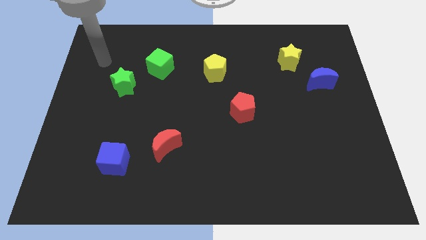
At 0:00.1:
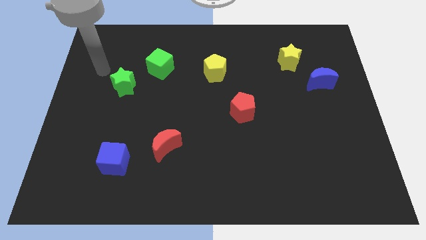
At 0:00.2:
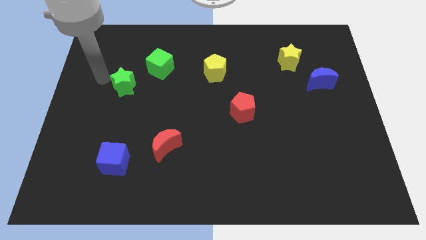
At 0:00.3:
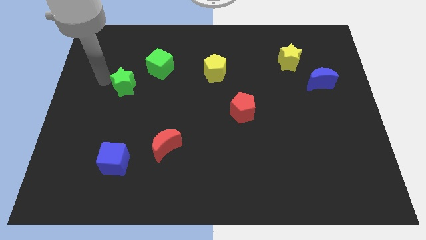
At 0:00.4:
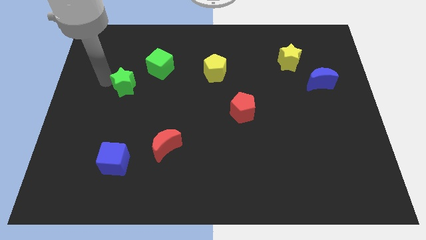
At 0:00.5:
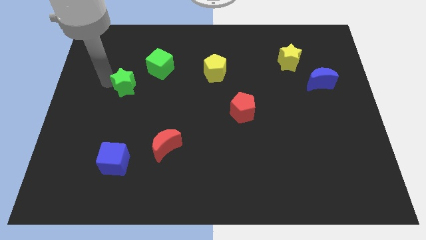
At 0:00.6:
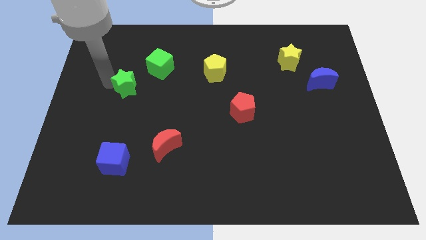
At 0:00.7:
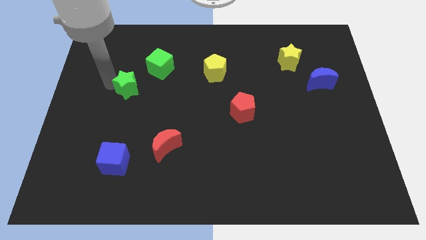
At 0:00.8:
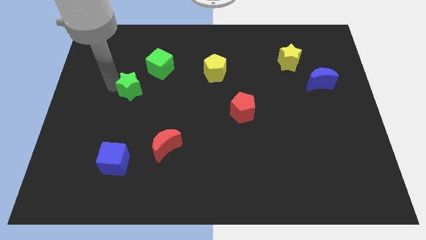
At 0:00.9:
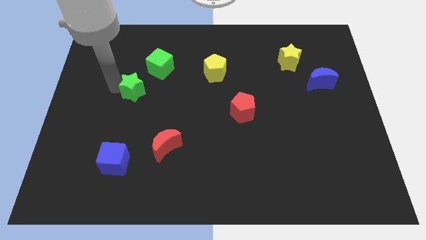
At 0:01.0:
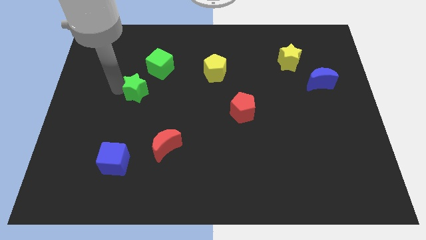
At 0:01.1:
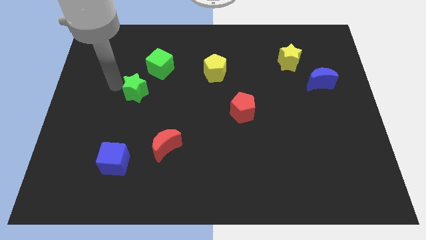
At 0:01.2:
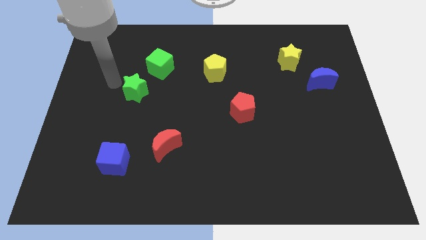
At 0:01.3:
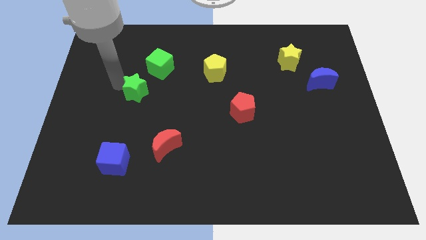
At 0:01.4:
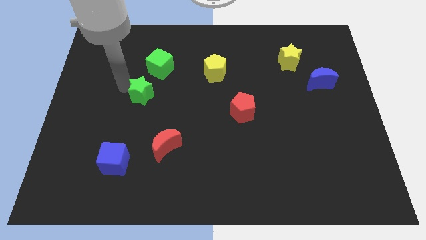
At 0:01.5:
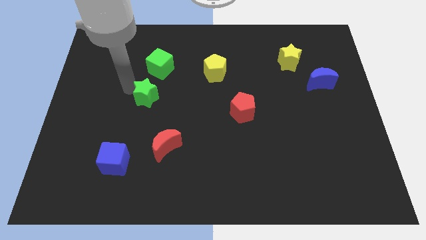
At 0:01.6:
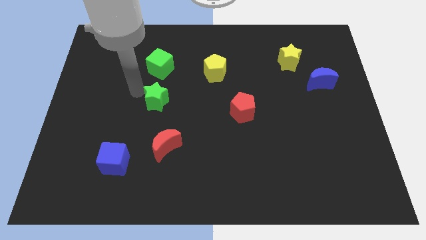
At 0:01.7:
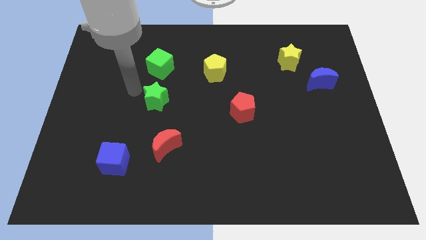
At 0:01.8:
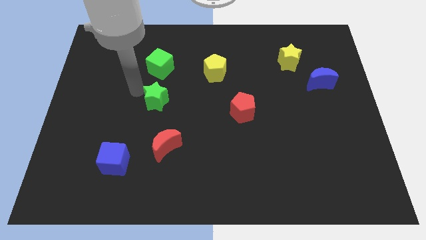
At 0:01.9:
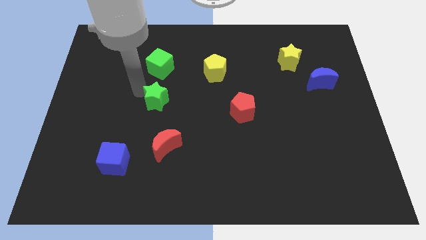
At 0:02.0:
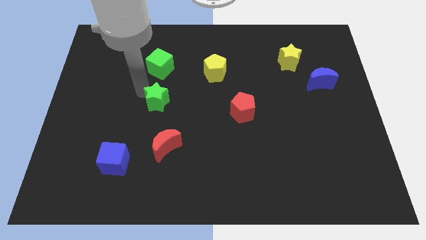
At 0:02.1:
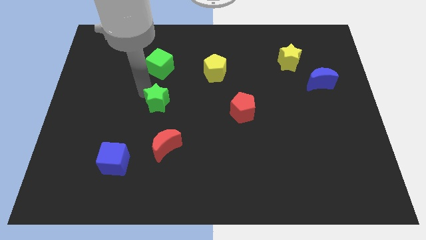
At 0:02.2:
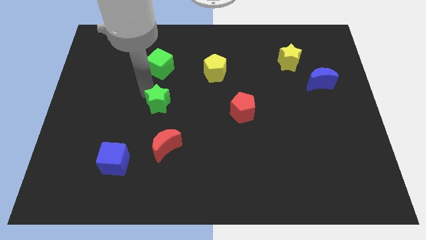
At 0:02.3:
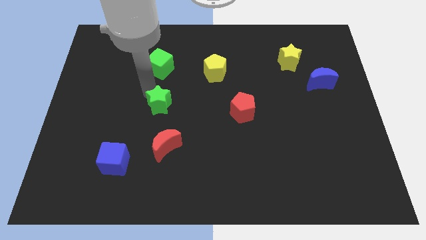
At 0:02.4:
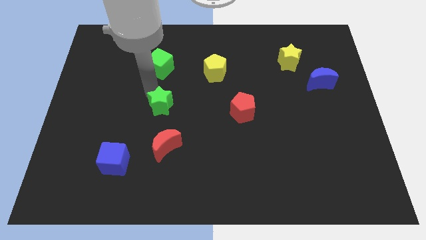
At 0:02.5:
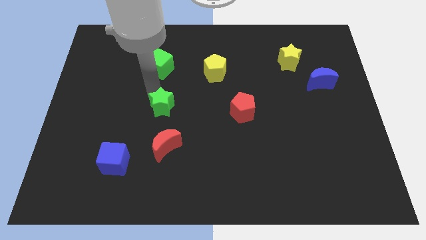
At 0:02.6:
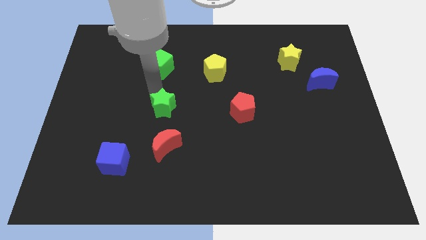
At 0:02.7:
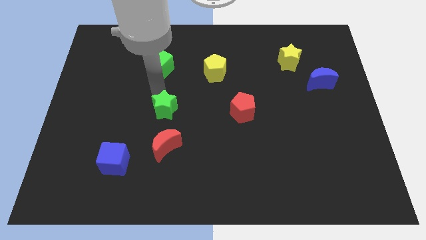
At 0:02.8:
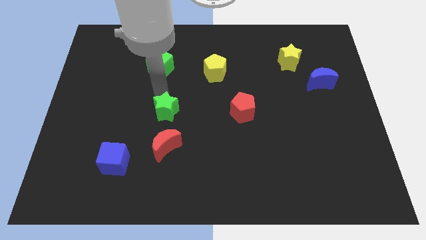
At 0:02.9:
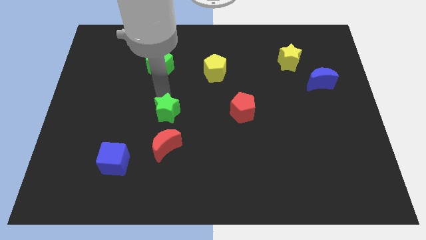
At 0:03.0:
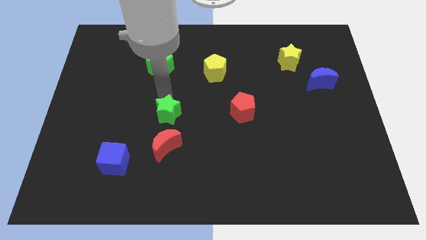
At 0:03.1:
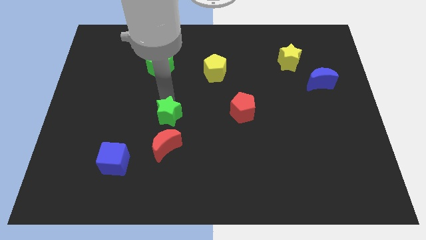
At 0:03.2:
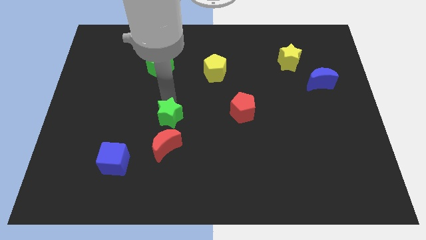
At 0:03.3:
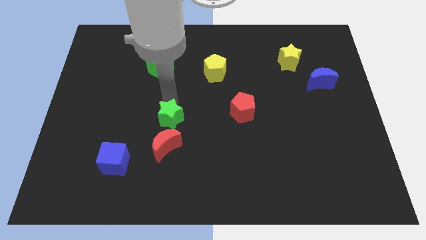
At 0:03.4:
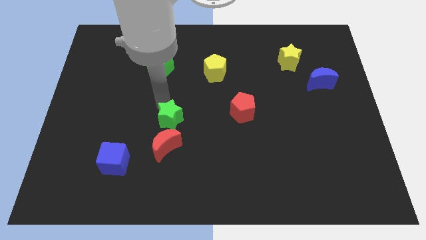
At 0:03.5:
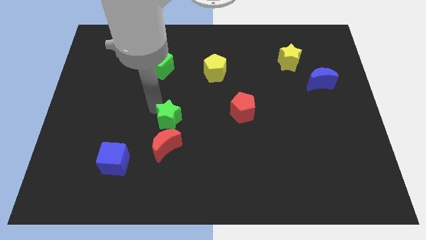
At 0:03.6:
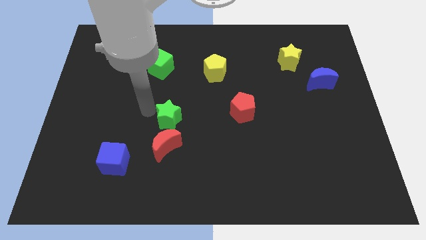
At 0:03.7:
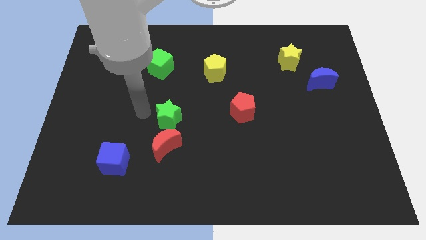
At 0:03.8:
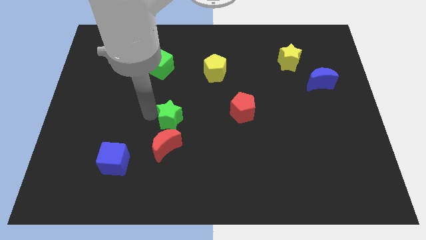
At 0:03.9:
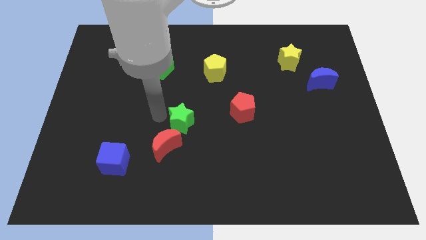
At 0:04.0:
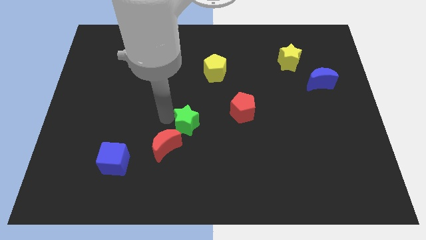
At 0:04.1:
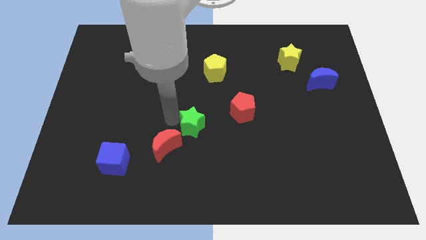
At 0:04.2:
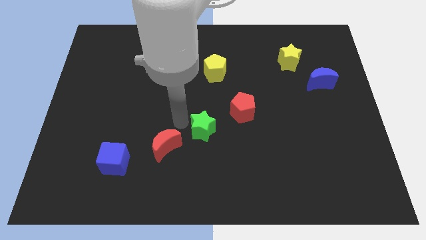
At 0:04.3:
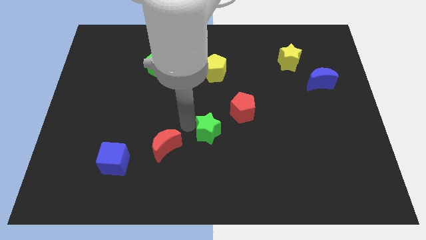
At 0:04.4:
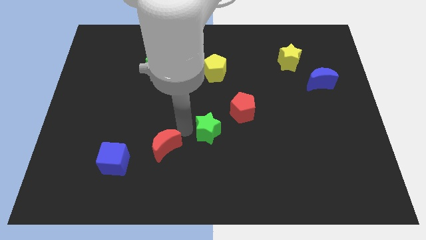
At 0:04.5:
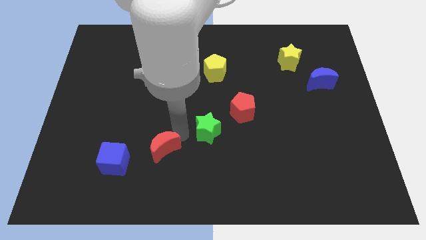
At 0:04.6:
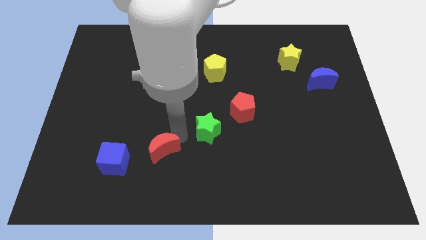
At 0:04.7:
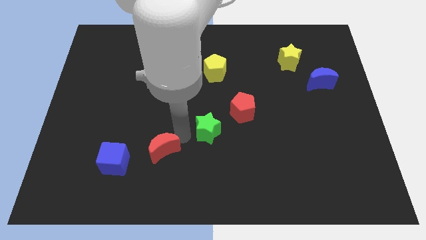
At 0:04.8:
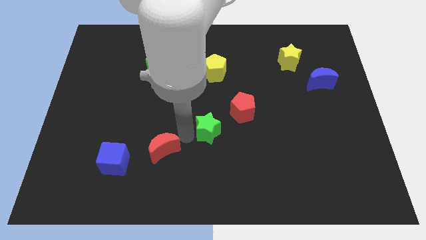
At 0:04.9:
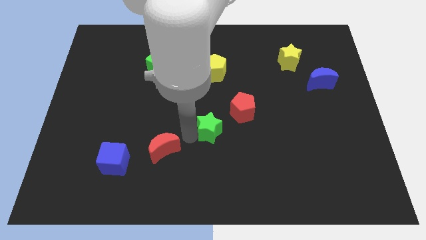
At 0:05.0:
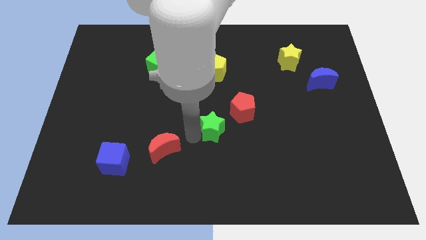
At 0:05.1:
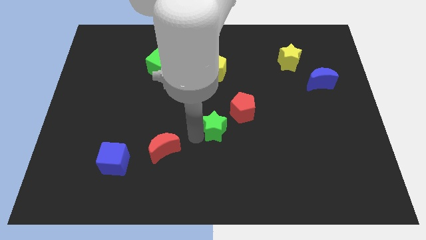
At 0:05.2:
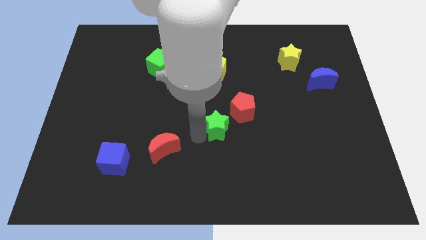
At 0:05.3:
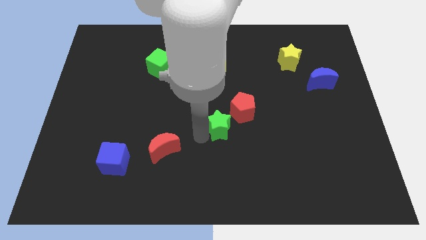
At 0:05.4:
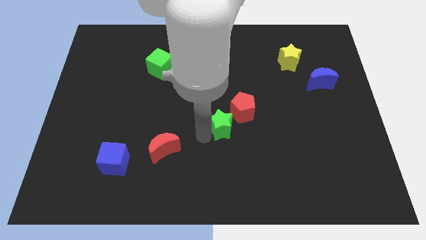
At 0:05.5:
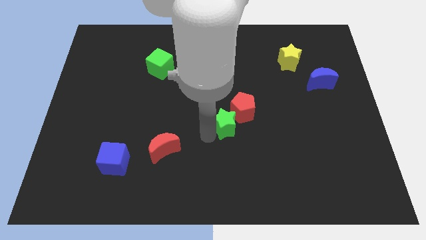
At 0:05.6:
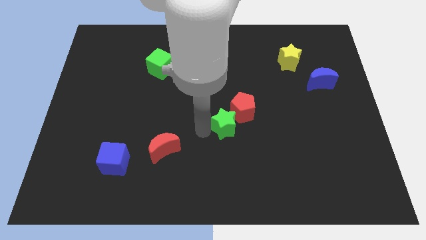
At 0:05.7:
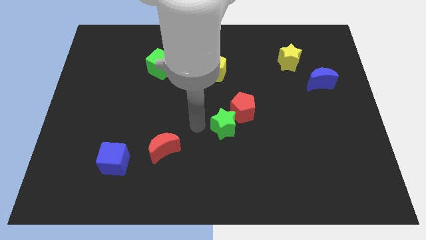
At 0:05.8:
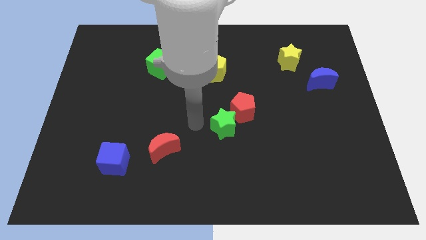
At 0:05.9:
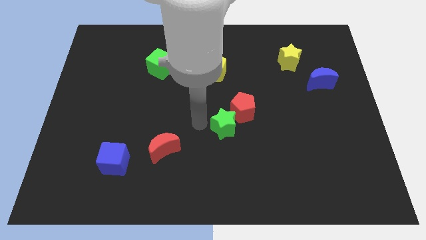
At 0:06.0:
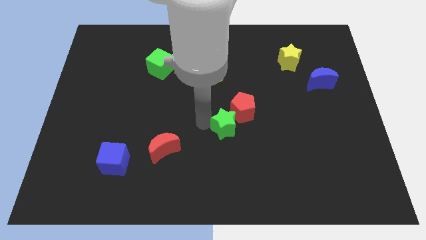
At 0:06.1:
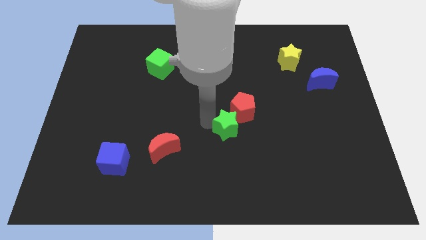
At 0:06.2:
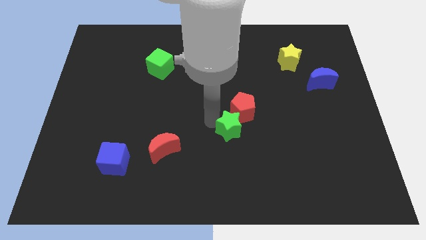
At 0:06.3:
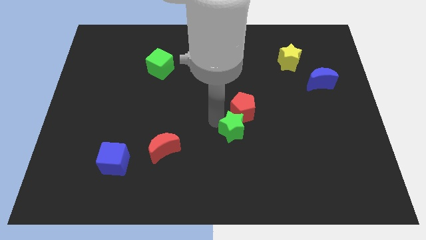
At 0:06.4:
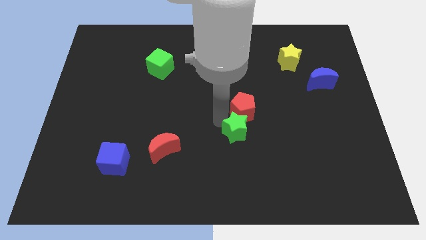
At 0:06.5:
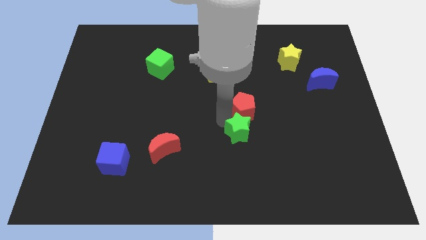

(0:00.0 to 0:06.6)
move the green star diagonally down and to the right of the red pentagon

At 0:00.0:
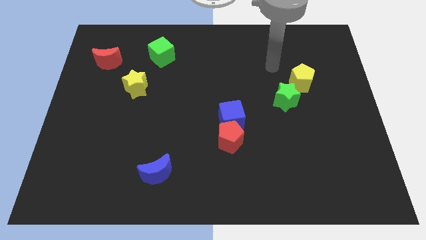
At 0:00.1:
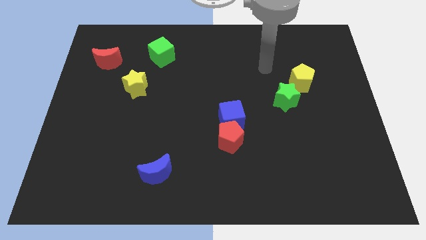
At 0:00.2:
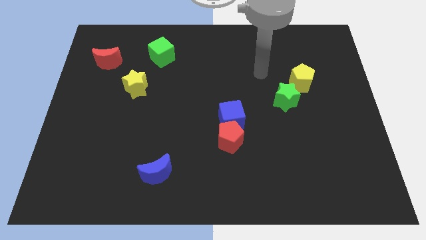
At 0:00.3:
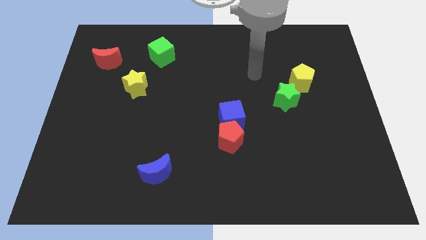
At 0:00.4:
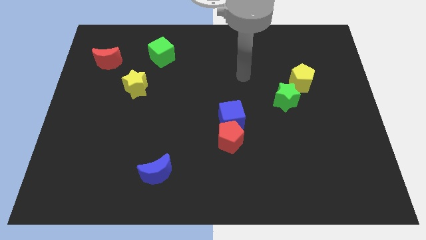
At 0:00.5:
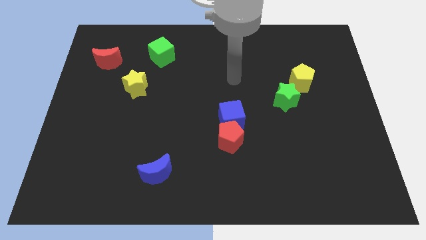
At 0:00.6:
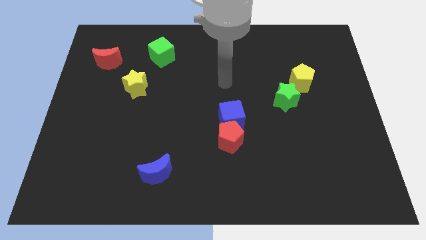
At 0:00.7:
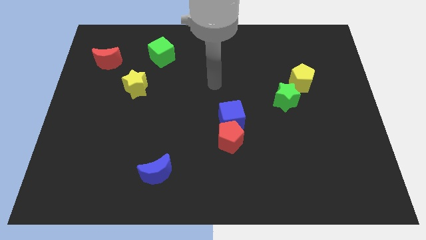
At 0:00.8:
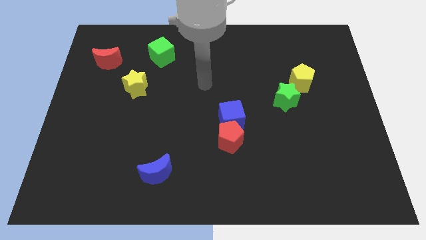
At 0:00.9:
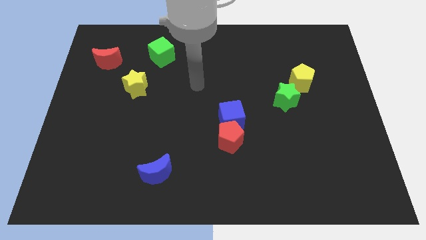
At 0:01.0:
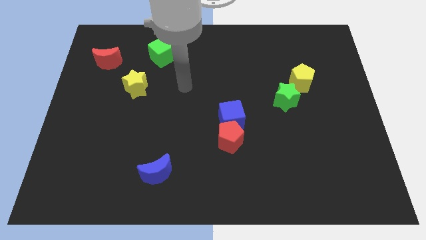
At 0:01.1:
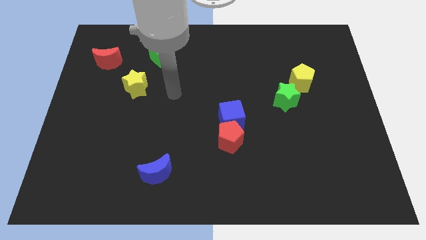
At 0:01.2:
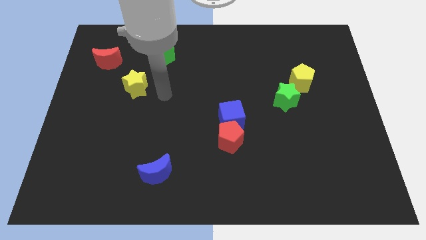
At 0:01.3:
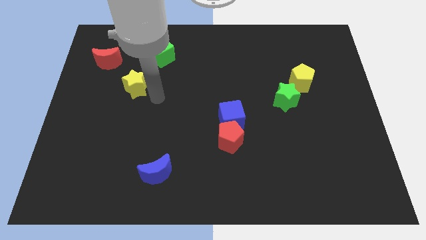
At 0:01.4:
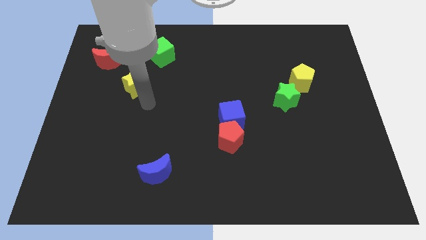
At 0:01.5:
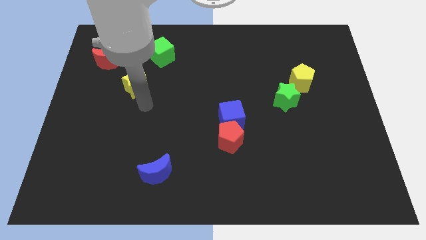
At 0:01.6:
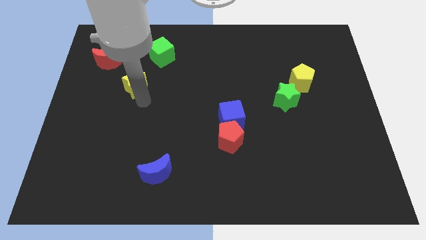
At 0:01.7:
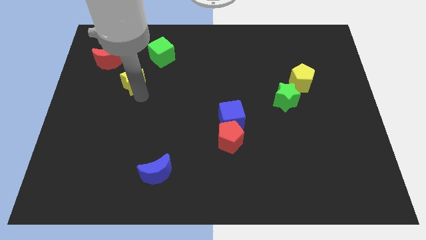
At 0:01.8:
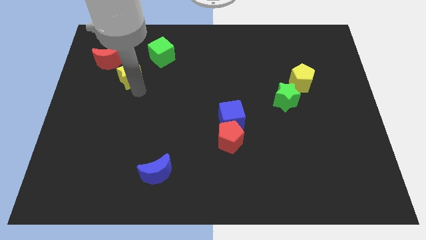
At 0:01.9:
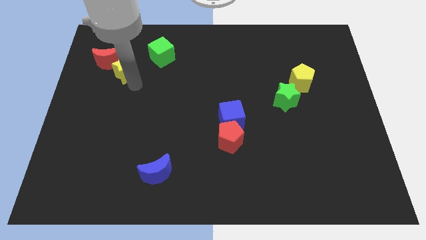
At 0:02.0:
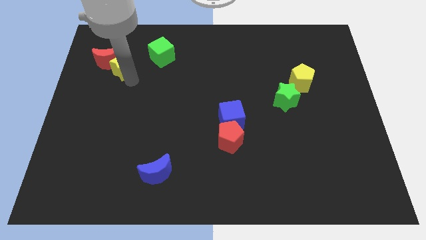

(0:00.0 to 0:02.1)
push the yellow star just left of the green cube
